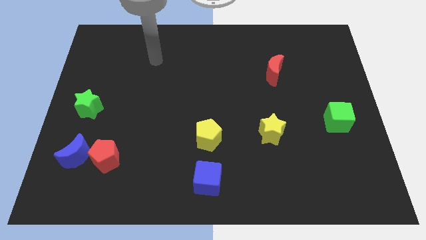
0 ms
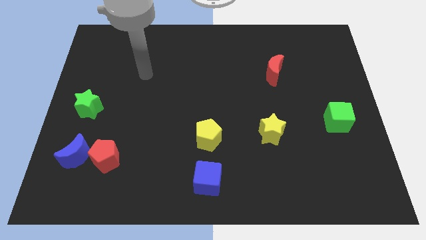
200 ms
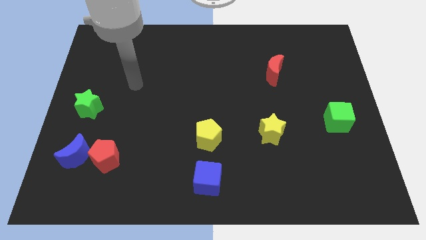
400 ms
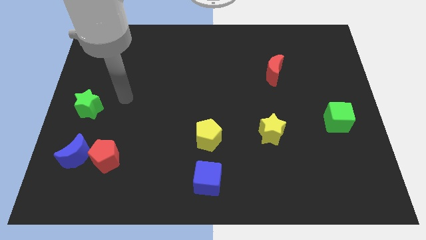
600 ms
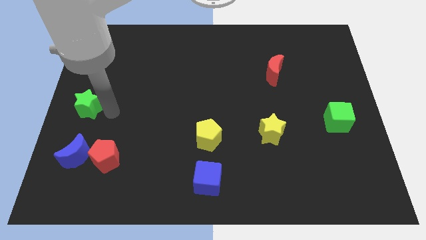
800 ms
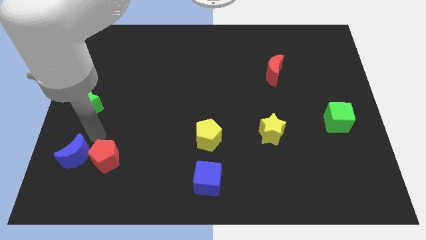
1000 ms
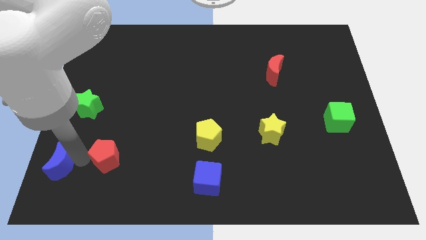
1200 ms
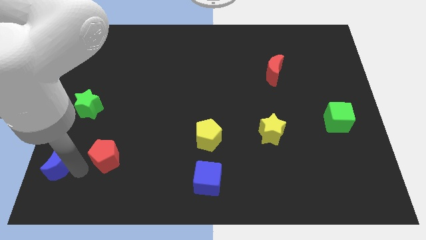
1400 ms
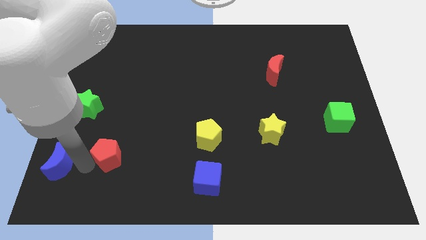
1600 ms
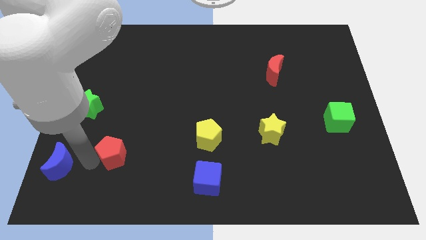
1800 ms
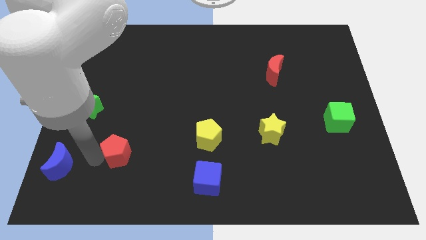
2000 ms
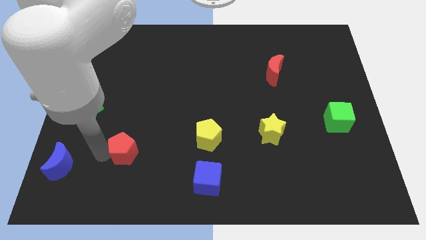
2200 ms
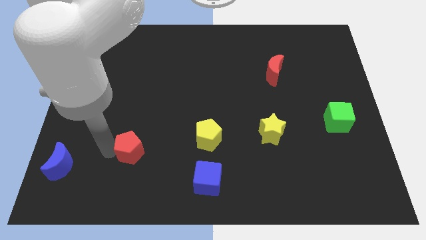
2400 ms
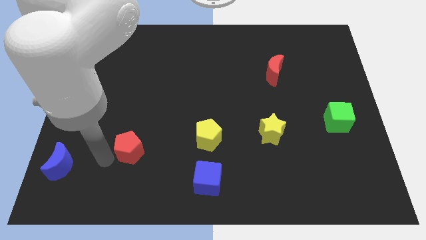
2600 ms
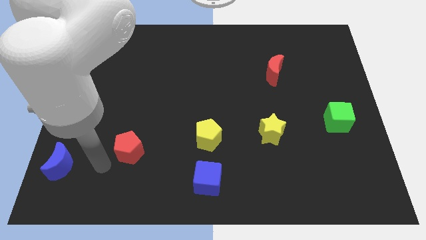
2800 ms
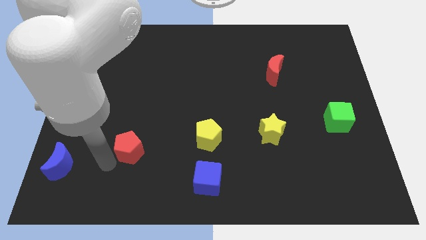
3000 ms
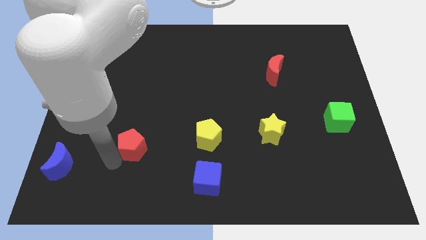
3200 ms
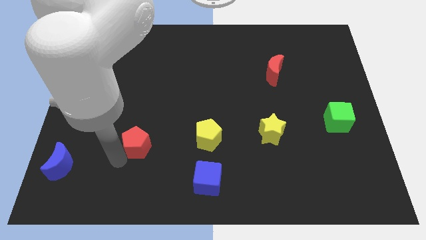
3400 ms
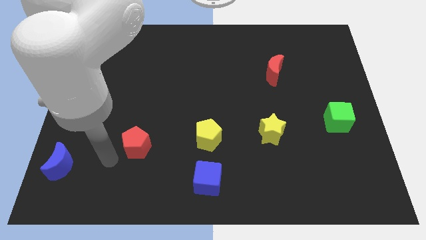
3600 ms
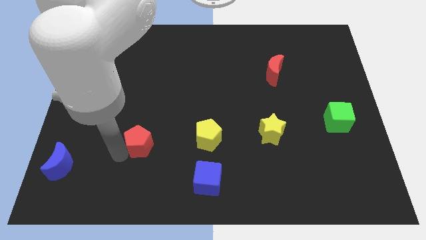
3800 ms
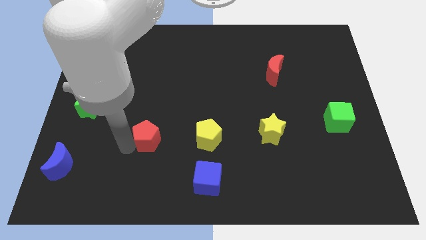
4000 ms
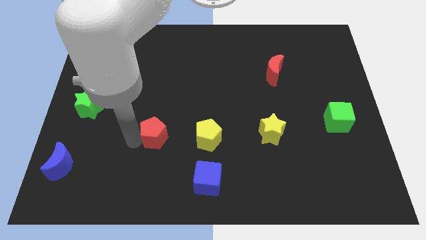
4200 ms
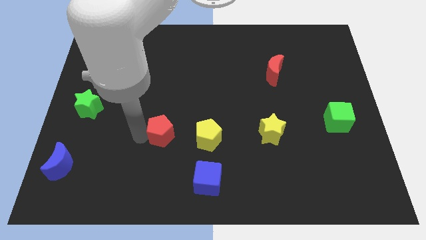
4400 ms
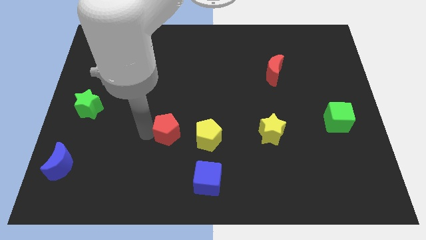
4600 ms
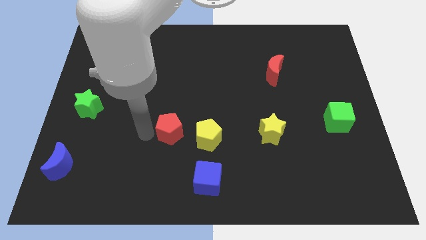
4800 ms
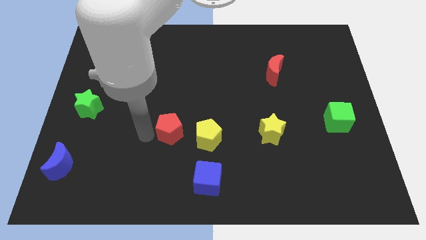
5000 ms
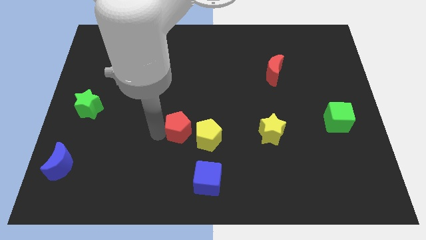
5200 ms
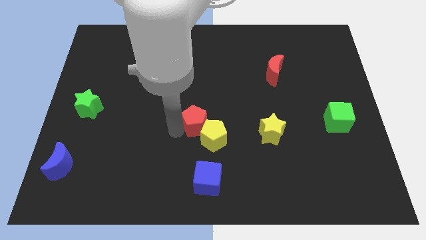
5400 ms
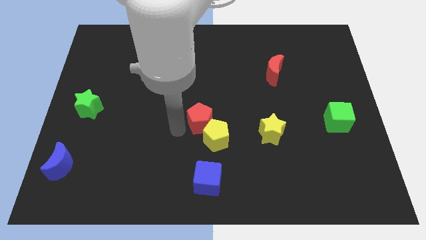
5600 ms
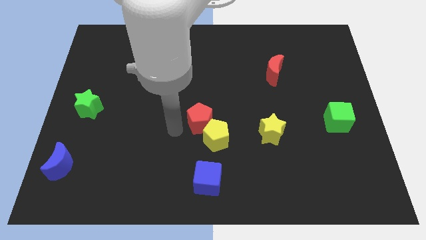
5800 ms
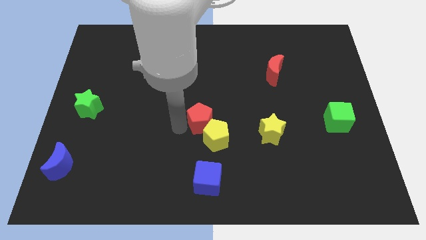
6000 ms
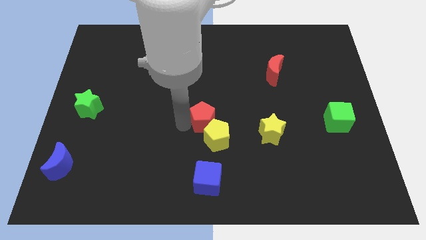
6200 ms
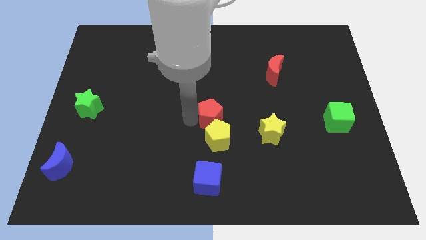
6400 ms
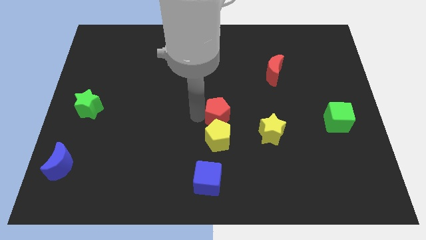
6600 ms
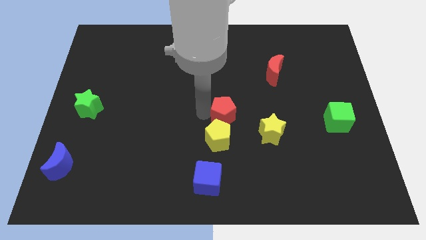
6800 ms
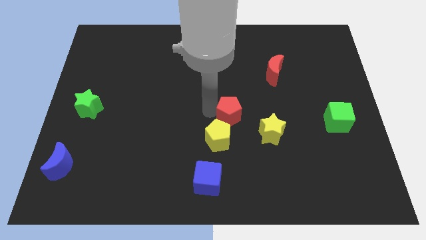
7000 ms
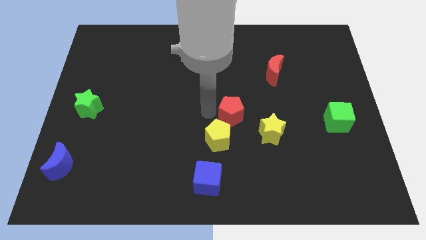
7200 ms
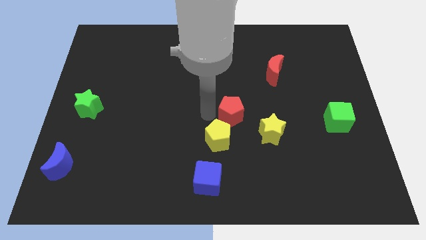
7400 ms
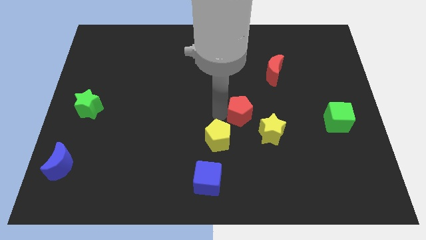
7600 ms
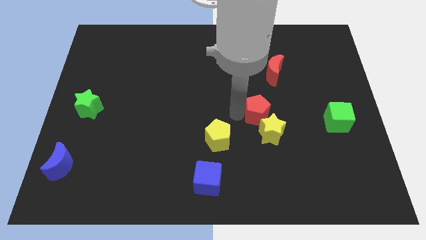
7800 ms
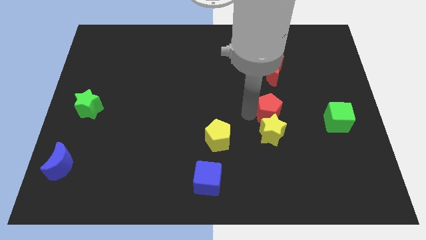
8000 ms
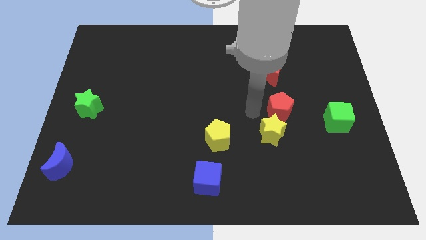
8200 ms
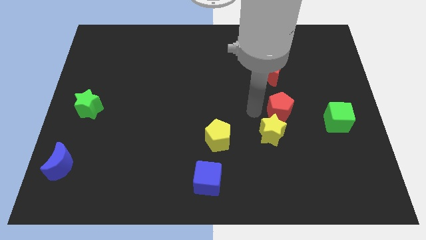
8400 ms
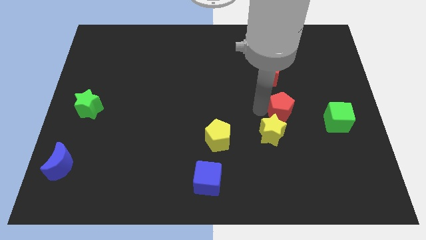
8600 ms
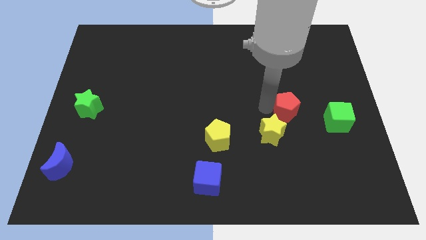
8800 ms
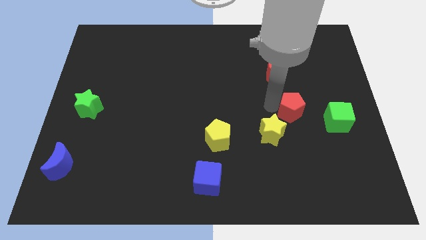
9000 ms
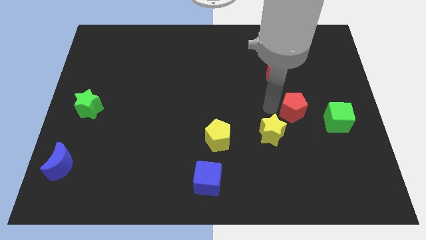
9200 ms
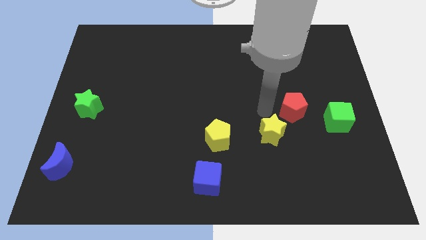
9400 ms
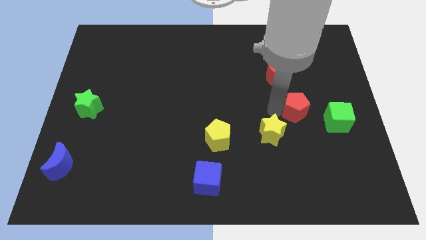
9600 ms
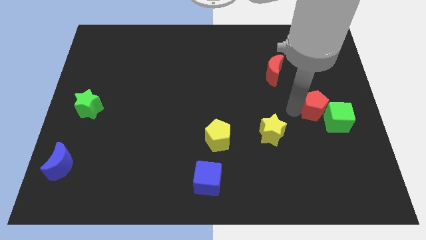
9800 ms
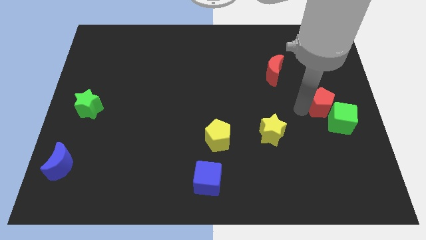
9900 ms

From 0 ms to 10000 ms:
move the red pentagon to the center right

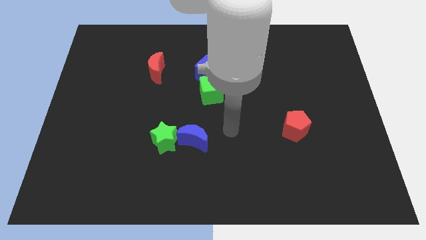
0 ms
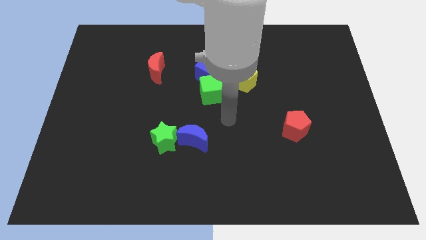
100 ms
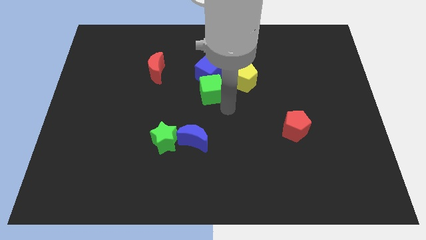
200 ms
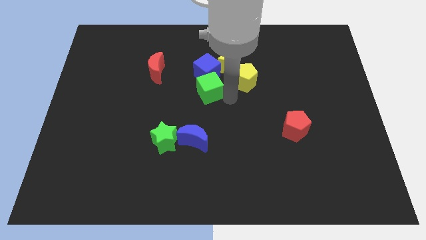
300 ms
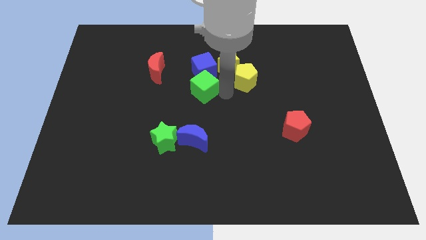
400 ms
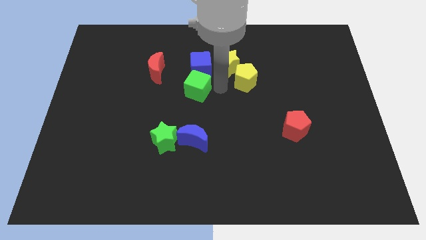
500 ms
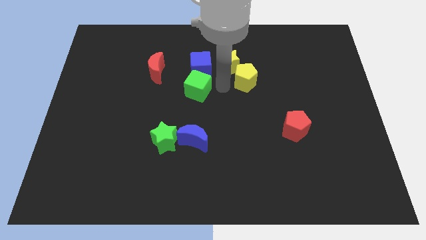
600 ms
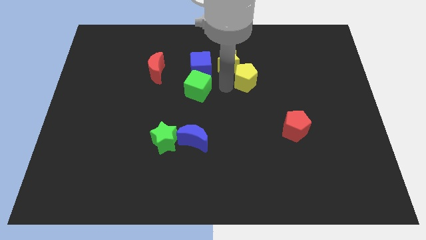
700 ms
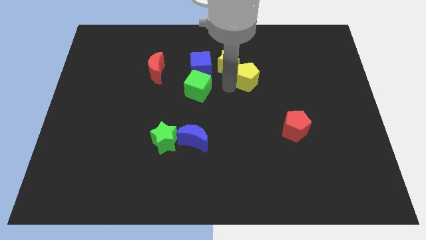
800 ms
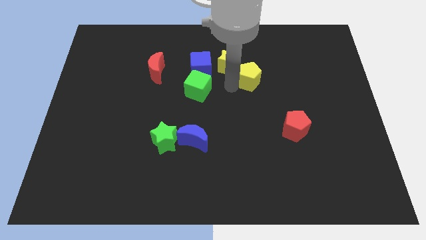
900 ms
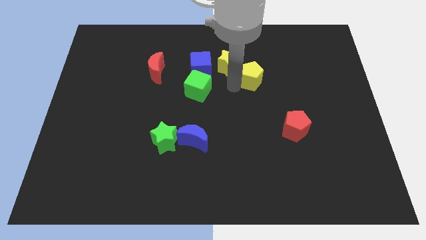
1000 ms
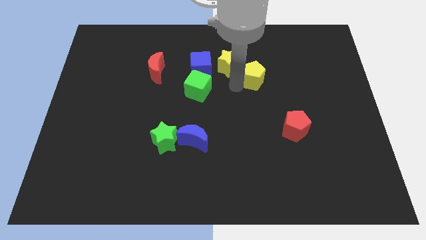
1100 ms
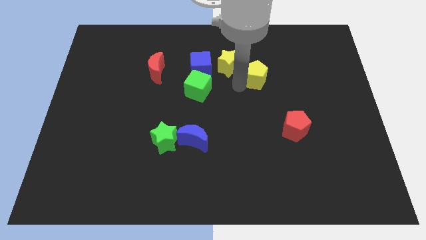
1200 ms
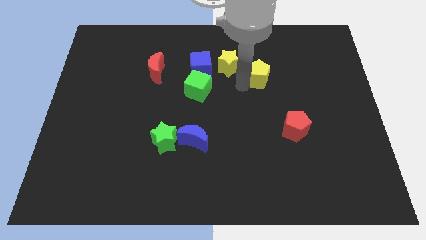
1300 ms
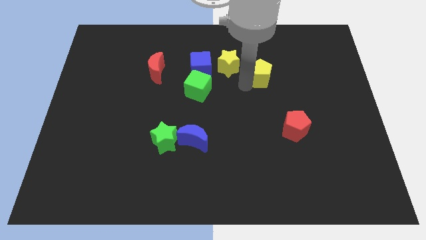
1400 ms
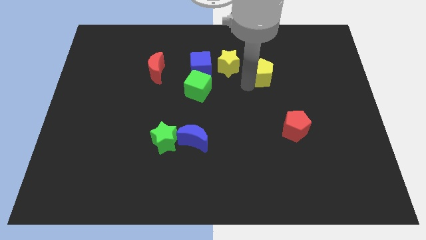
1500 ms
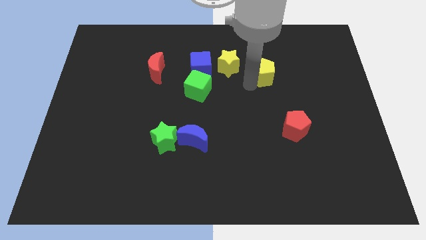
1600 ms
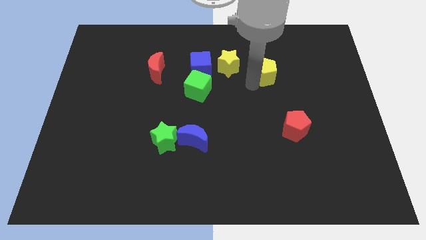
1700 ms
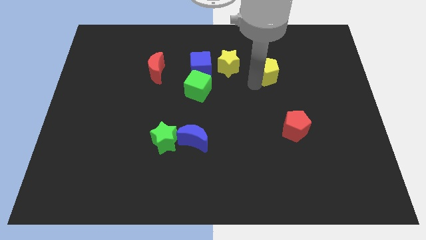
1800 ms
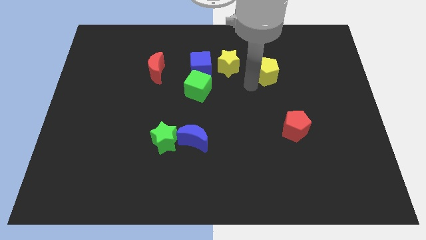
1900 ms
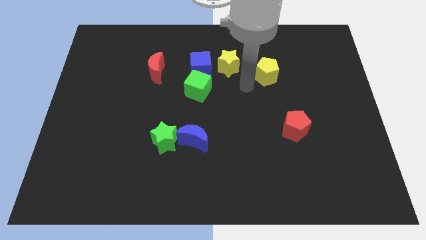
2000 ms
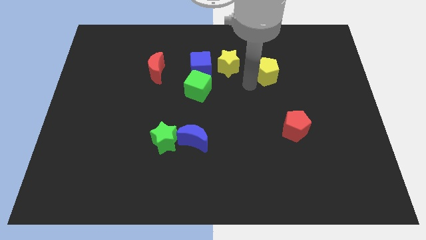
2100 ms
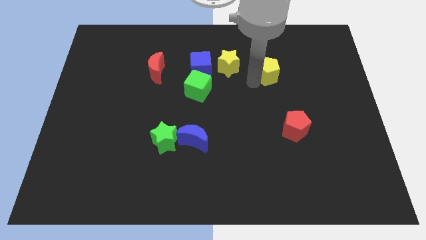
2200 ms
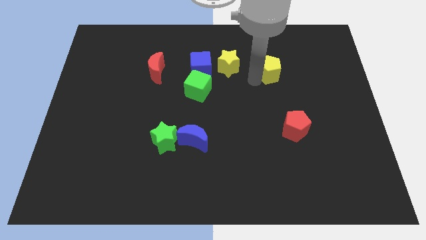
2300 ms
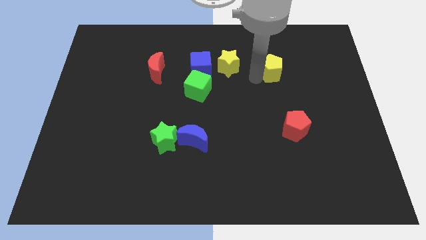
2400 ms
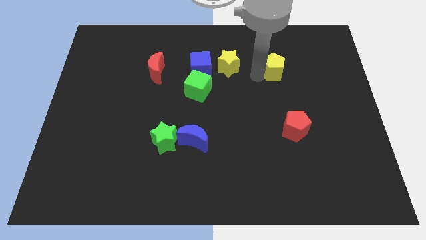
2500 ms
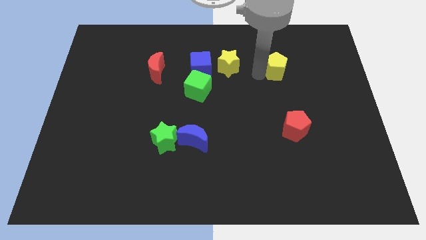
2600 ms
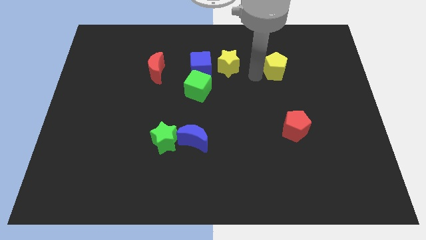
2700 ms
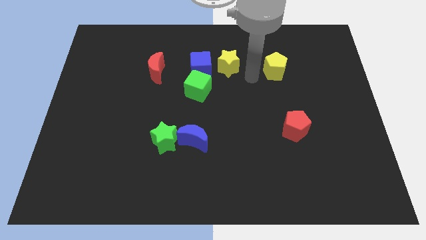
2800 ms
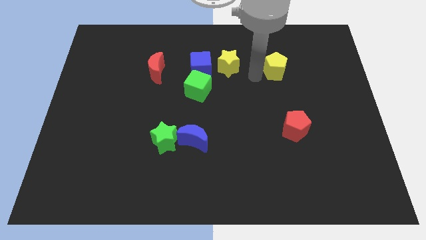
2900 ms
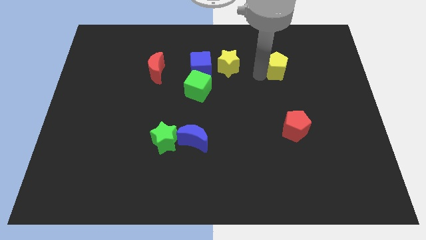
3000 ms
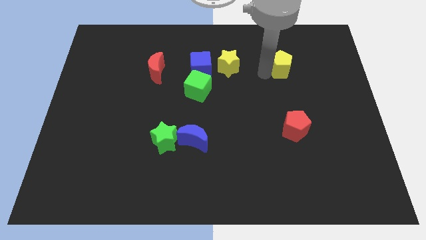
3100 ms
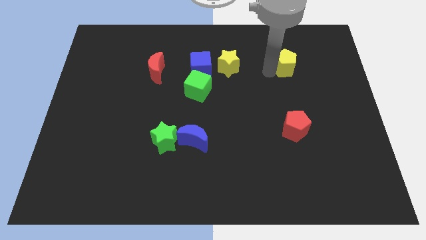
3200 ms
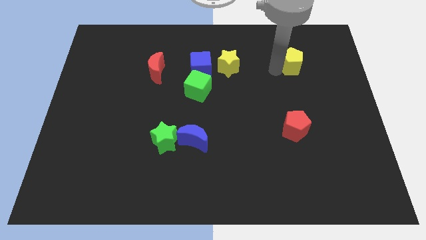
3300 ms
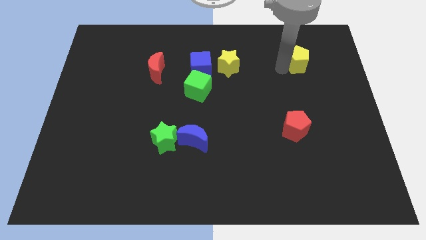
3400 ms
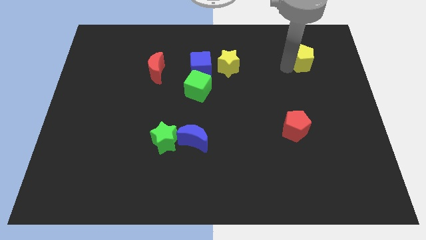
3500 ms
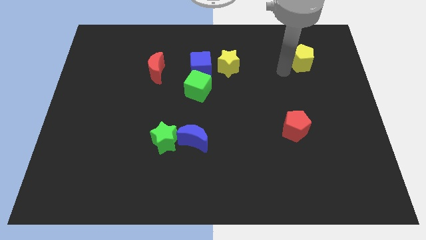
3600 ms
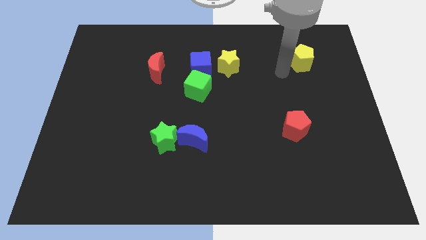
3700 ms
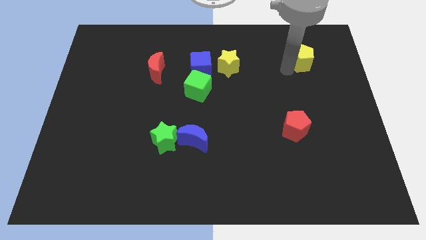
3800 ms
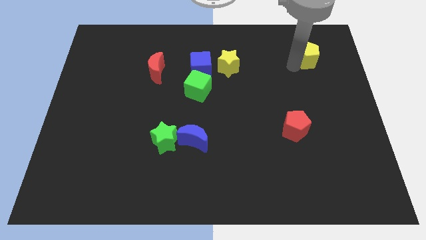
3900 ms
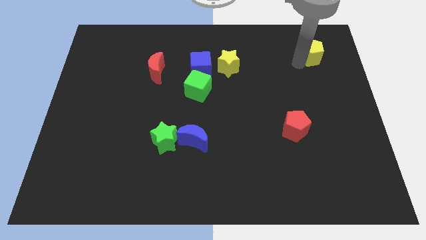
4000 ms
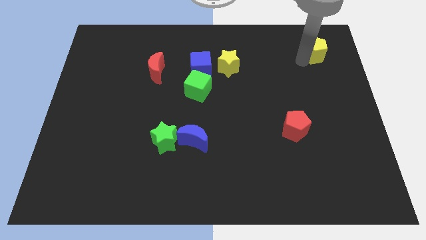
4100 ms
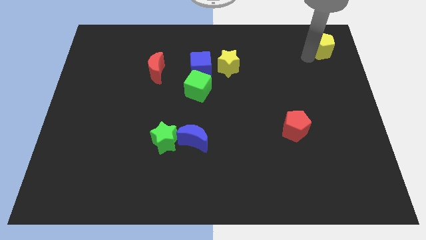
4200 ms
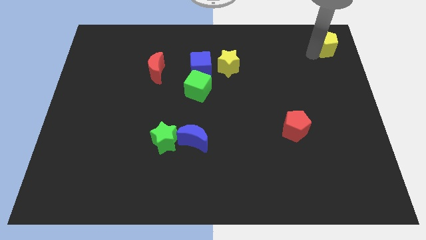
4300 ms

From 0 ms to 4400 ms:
put the yellow pentagon to the top right corner
